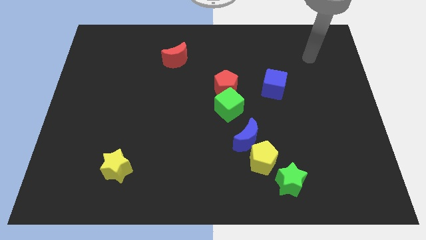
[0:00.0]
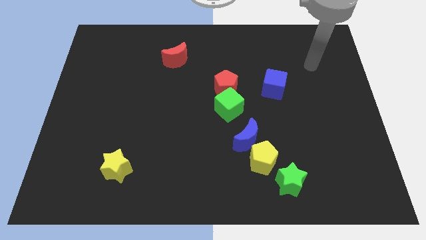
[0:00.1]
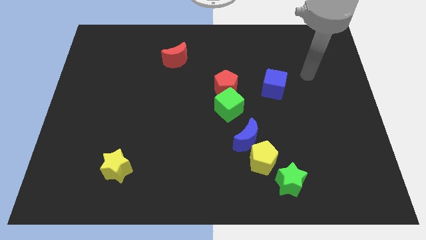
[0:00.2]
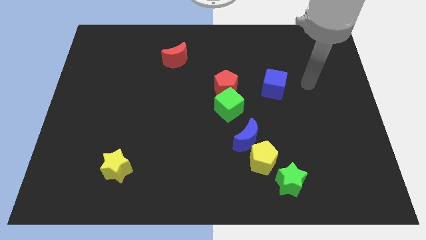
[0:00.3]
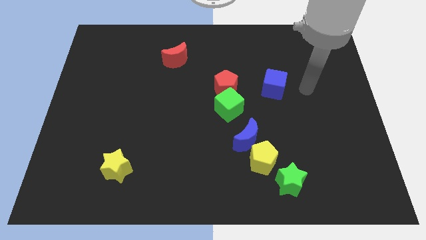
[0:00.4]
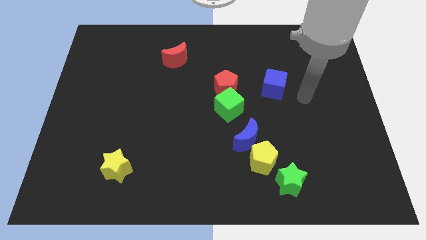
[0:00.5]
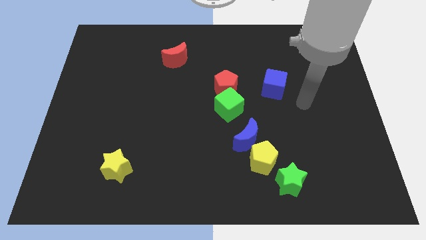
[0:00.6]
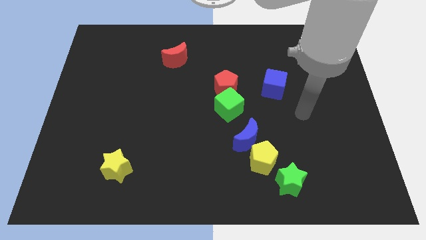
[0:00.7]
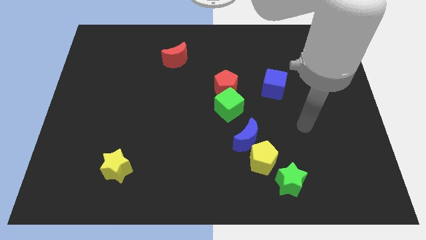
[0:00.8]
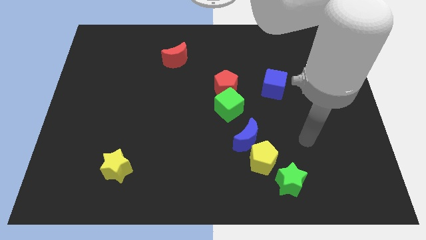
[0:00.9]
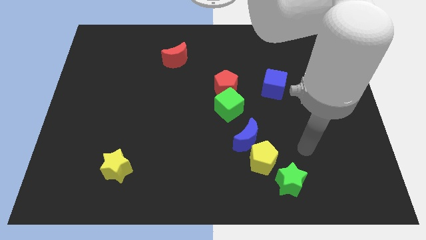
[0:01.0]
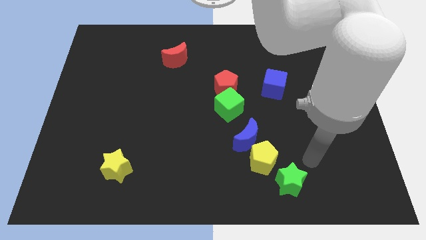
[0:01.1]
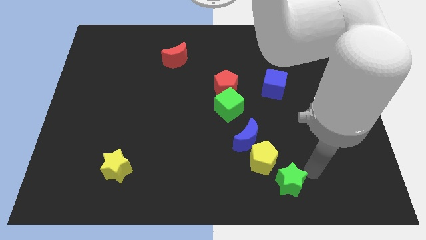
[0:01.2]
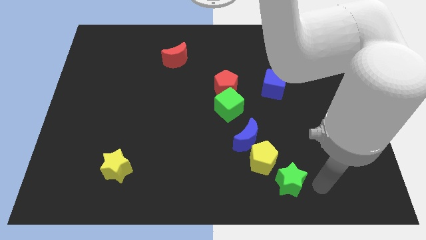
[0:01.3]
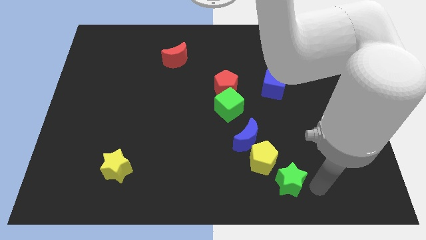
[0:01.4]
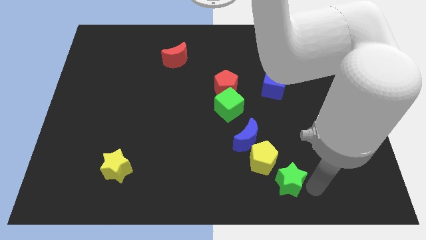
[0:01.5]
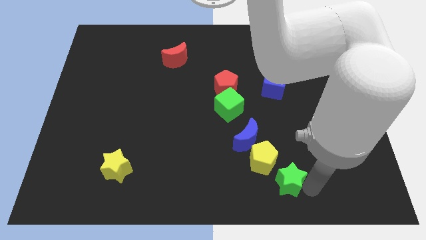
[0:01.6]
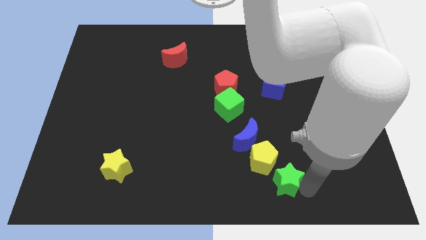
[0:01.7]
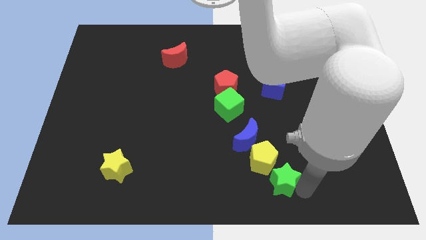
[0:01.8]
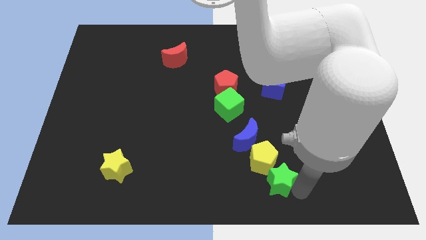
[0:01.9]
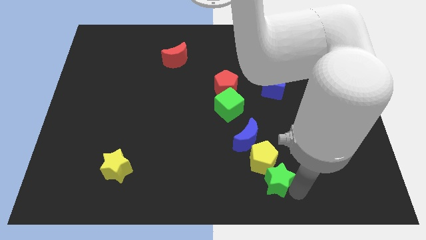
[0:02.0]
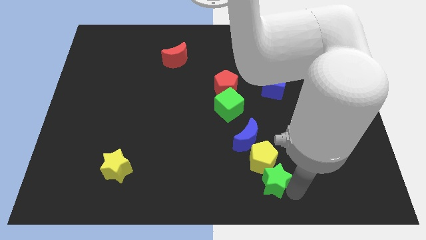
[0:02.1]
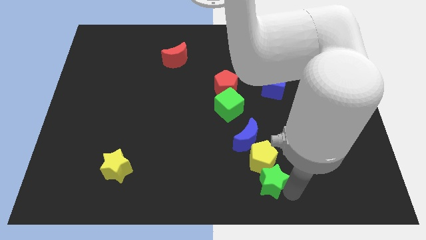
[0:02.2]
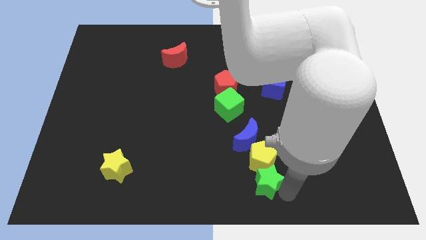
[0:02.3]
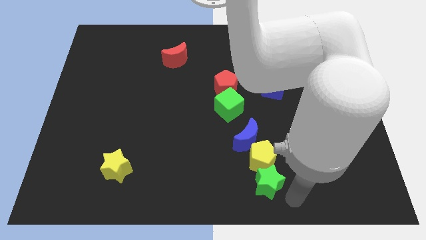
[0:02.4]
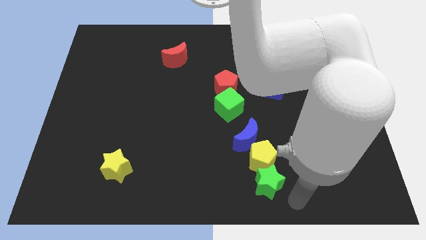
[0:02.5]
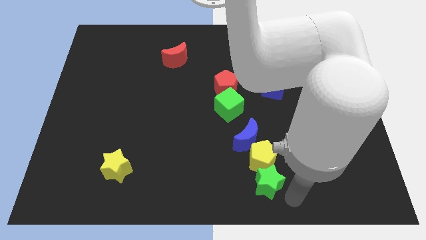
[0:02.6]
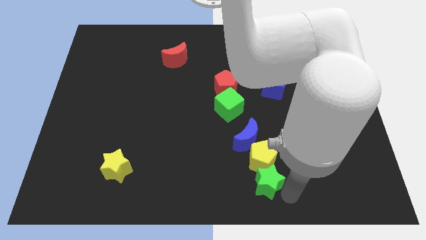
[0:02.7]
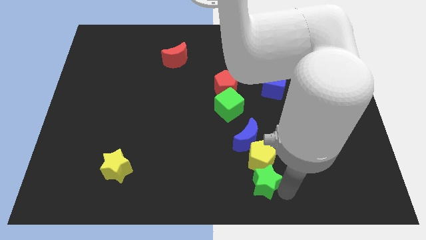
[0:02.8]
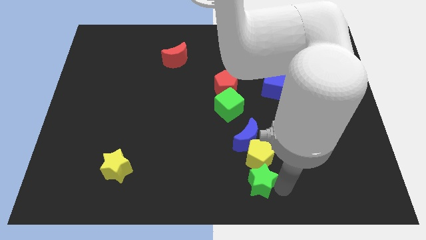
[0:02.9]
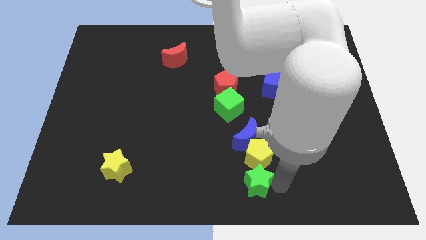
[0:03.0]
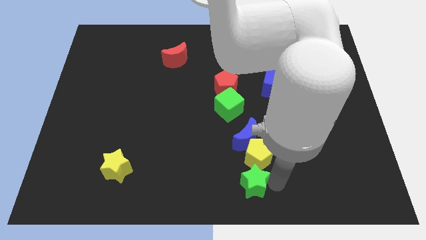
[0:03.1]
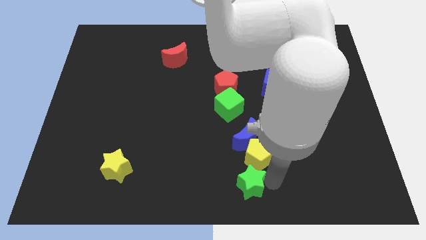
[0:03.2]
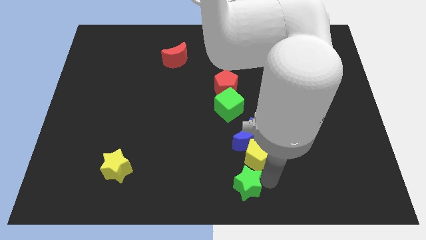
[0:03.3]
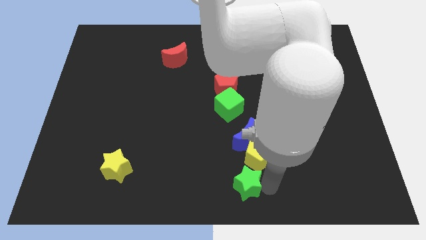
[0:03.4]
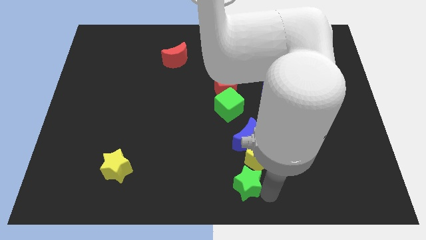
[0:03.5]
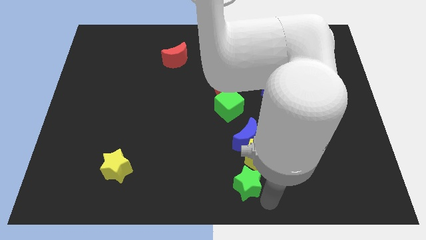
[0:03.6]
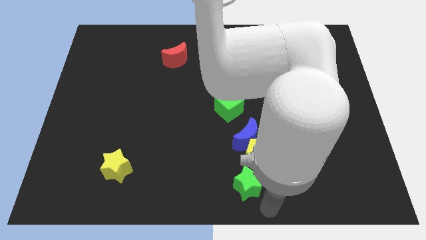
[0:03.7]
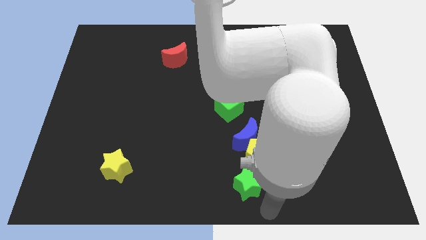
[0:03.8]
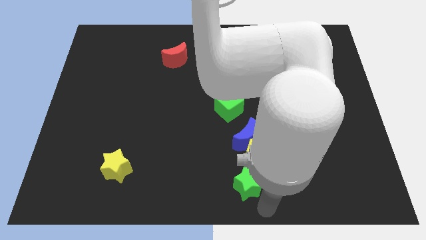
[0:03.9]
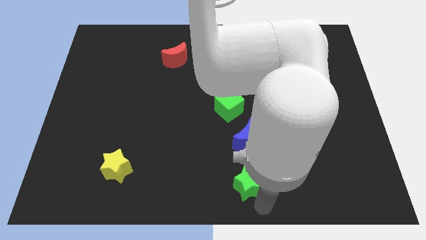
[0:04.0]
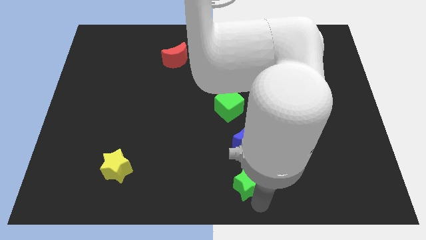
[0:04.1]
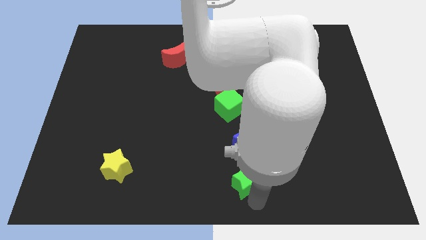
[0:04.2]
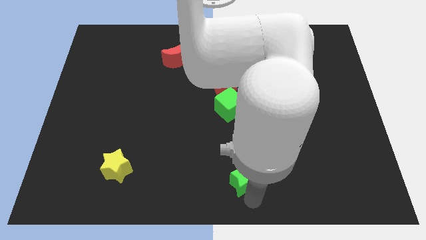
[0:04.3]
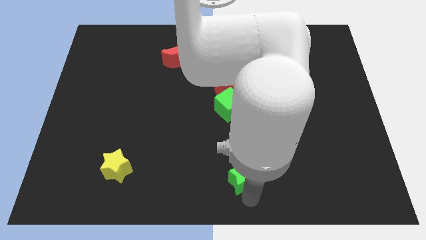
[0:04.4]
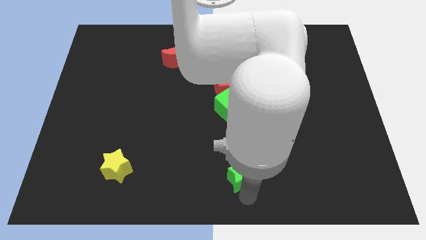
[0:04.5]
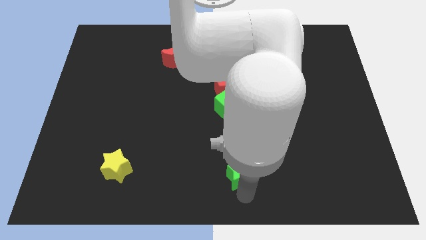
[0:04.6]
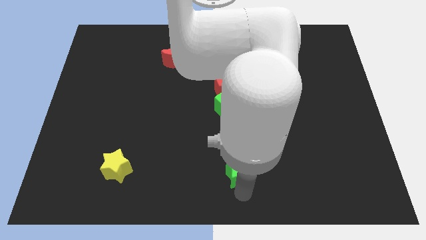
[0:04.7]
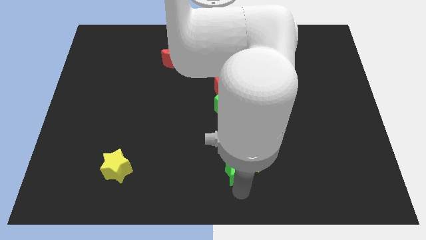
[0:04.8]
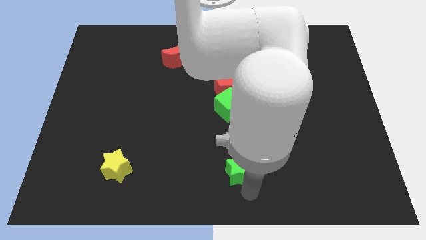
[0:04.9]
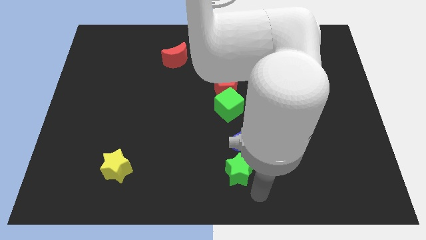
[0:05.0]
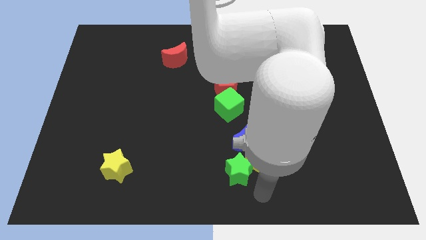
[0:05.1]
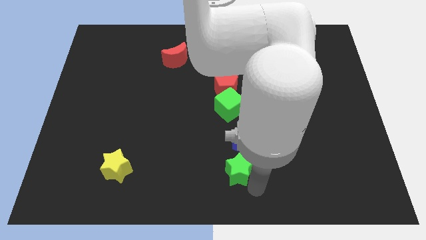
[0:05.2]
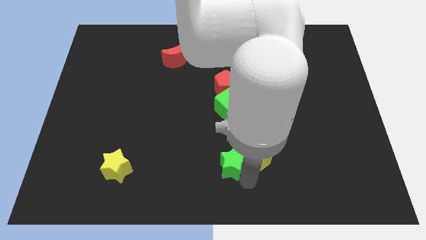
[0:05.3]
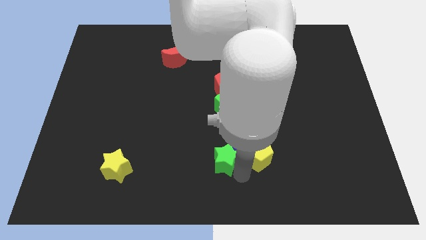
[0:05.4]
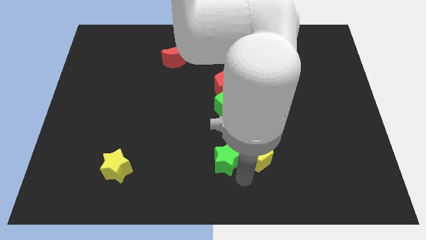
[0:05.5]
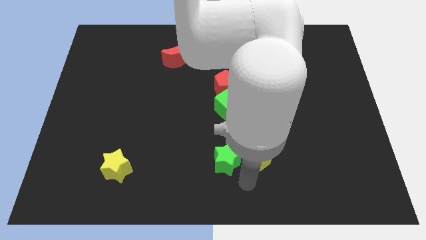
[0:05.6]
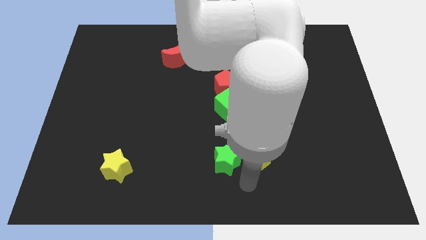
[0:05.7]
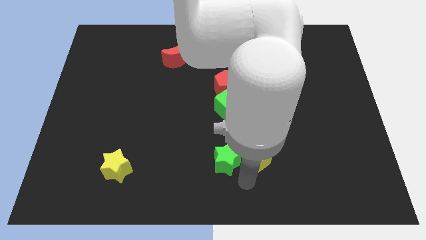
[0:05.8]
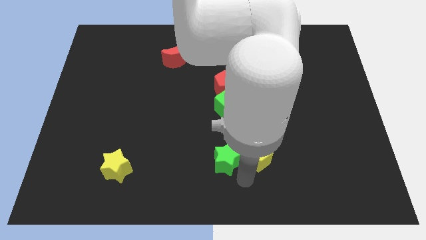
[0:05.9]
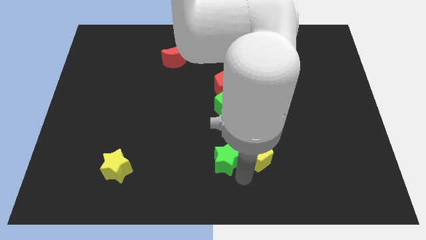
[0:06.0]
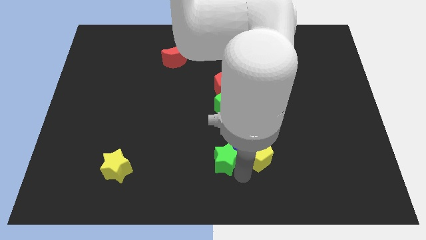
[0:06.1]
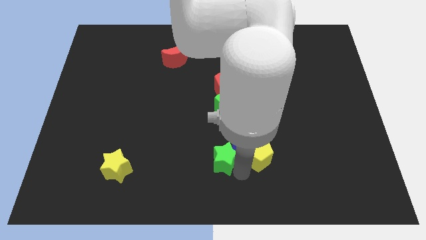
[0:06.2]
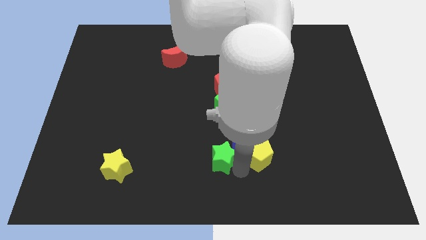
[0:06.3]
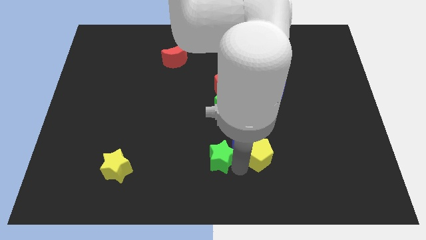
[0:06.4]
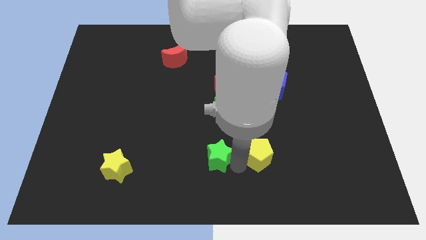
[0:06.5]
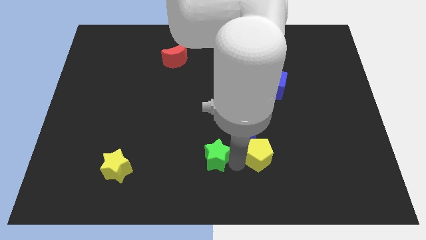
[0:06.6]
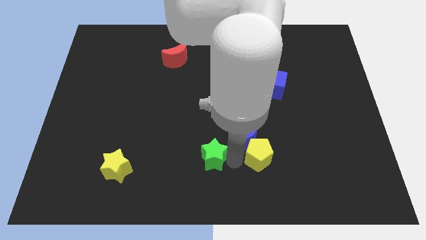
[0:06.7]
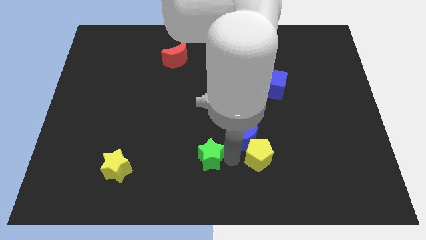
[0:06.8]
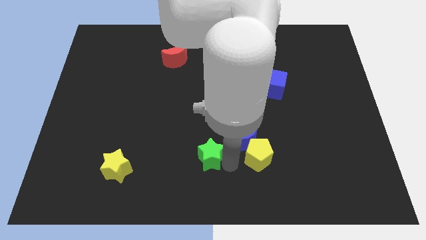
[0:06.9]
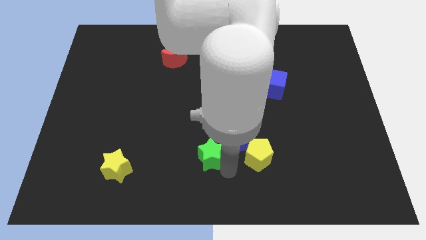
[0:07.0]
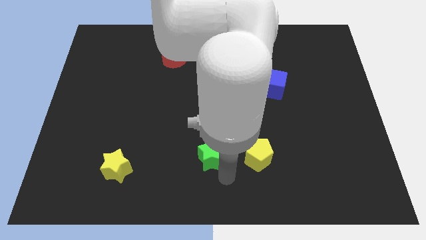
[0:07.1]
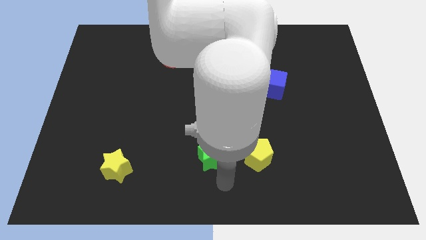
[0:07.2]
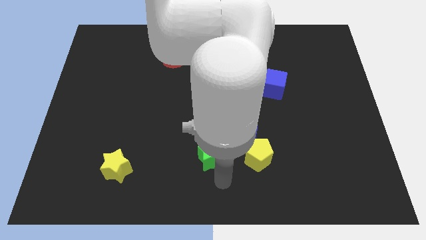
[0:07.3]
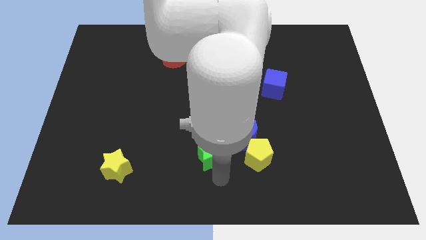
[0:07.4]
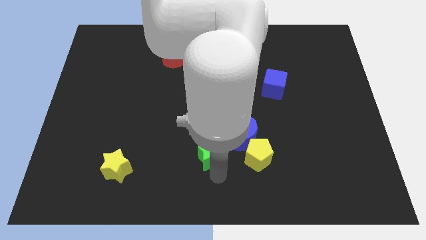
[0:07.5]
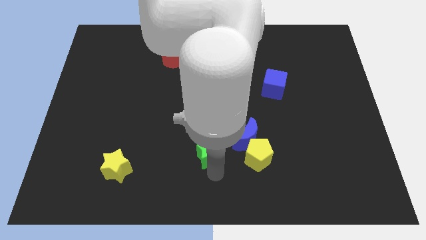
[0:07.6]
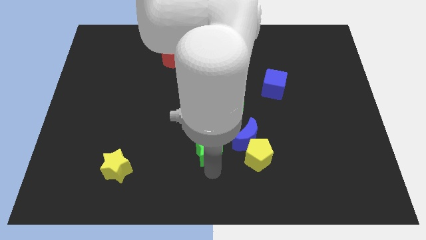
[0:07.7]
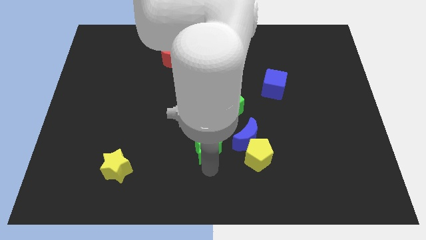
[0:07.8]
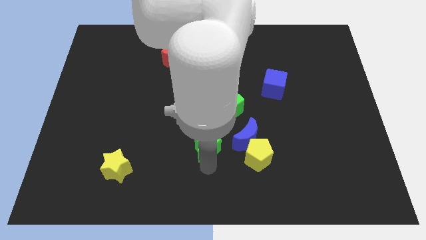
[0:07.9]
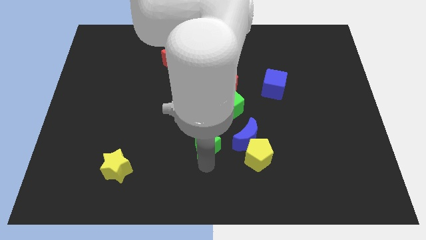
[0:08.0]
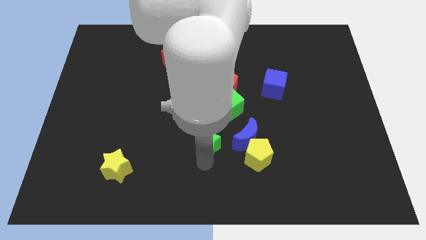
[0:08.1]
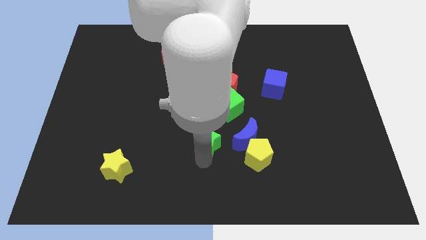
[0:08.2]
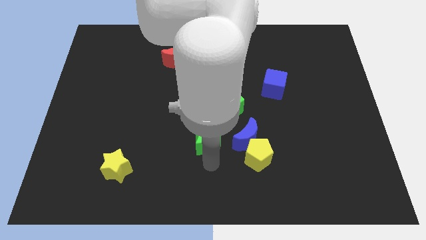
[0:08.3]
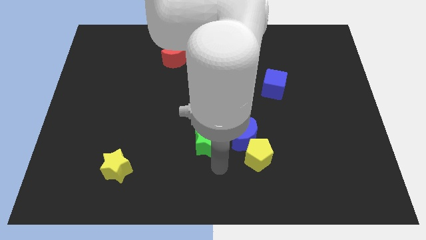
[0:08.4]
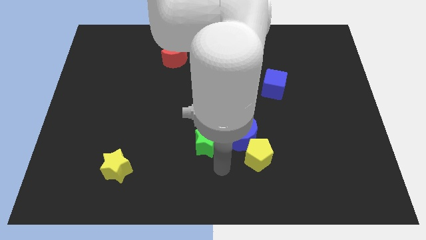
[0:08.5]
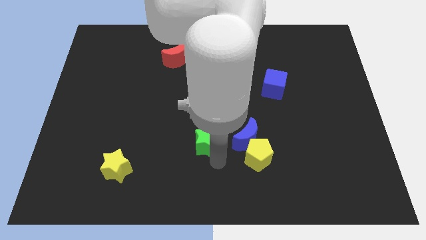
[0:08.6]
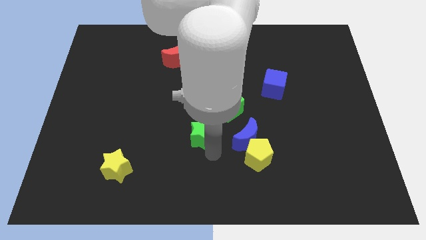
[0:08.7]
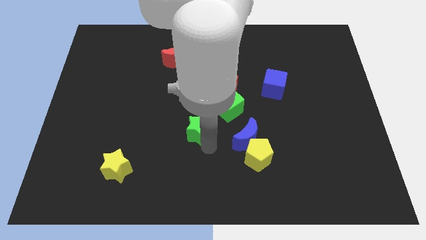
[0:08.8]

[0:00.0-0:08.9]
move the green star up and to the left
